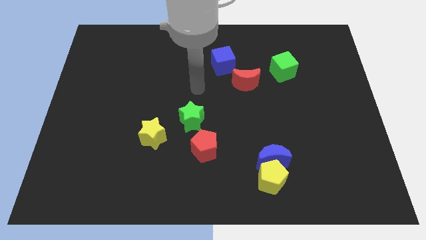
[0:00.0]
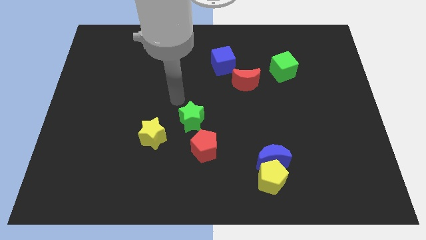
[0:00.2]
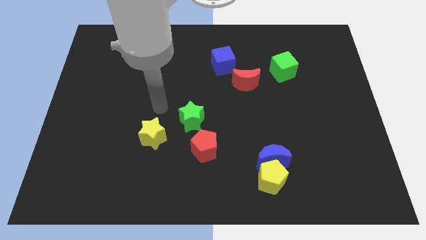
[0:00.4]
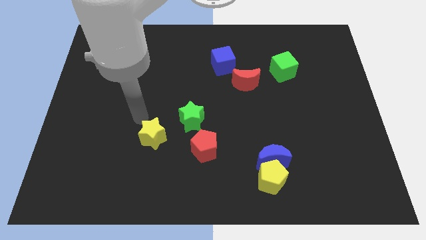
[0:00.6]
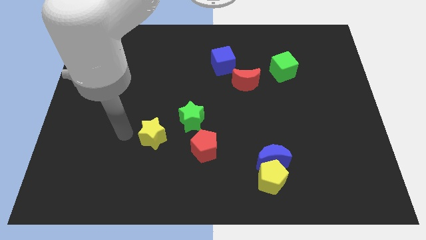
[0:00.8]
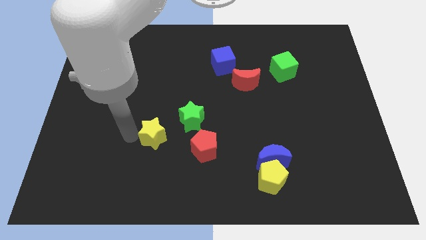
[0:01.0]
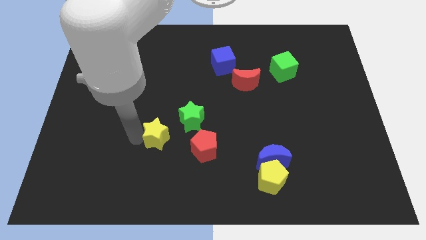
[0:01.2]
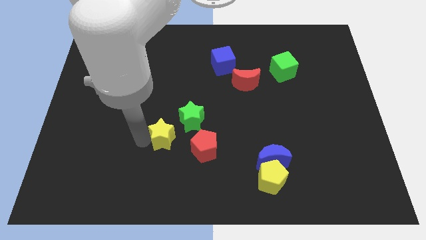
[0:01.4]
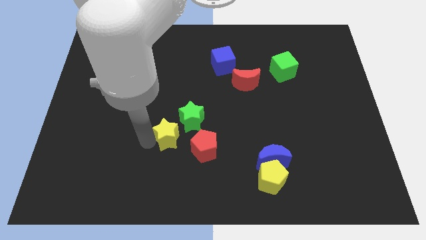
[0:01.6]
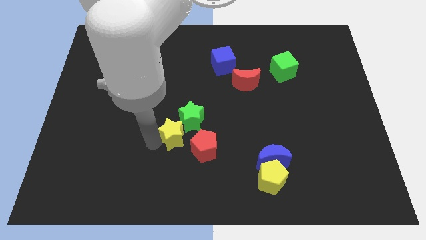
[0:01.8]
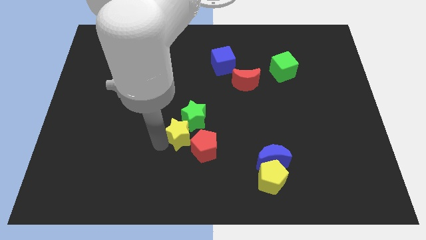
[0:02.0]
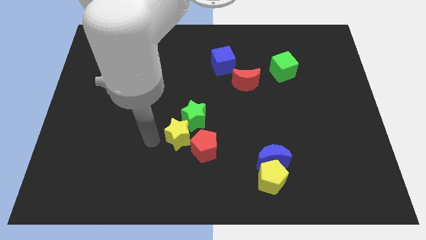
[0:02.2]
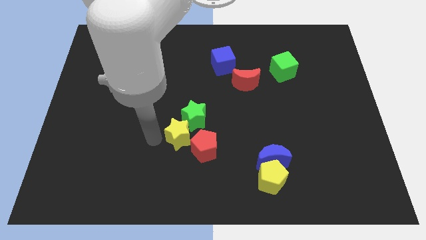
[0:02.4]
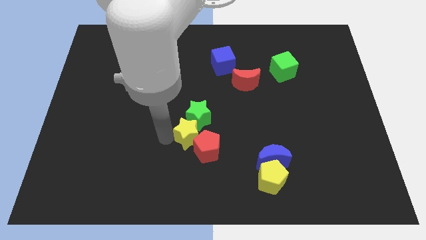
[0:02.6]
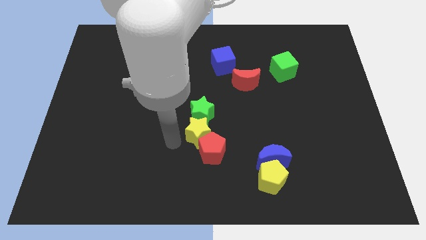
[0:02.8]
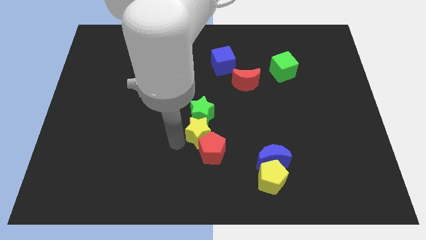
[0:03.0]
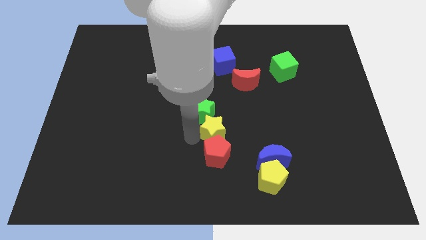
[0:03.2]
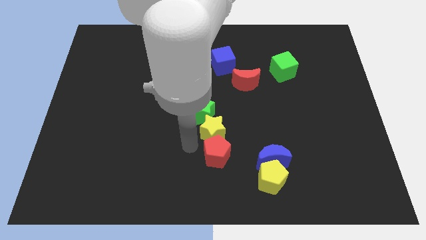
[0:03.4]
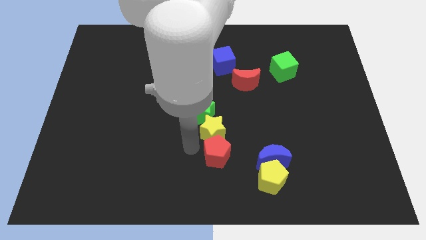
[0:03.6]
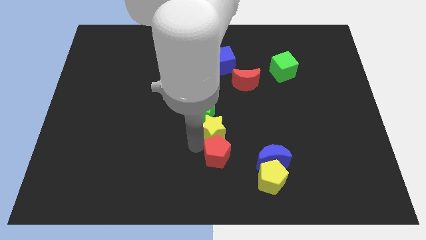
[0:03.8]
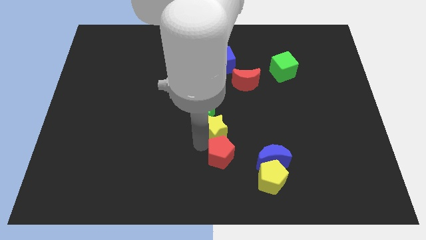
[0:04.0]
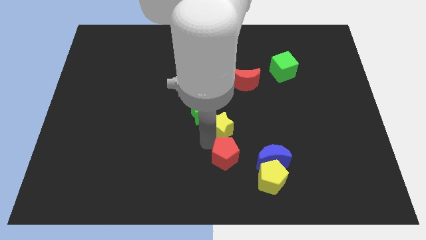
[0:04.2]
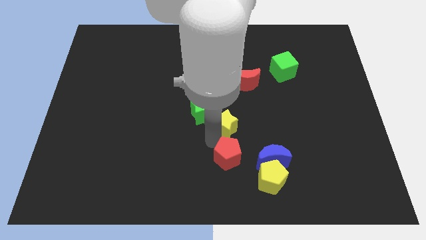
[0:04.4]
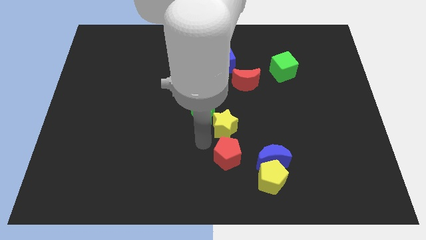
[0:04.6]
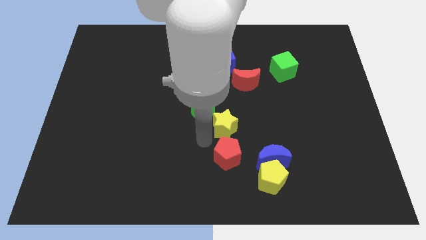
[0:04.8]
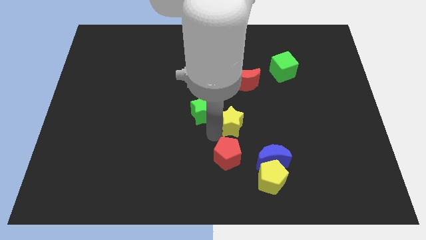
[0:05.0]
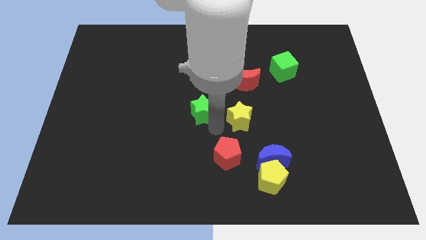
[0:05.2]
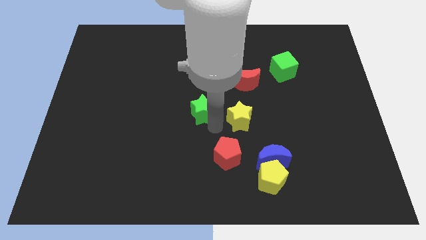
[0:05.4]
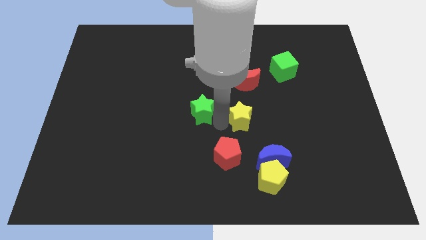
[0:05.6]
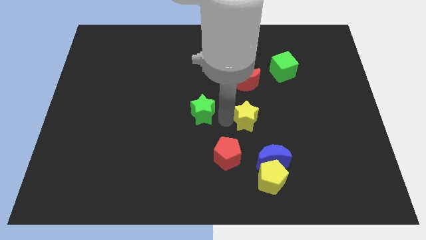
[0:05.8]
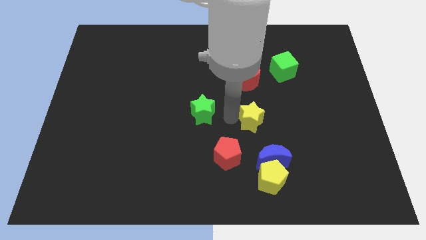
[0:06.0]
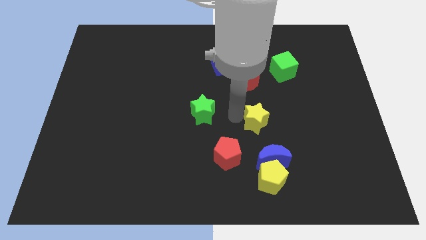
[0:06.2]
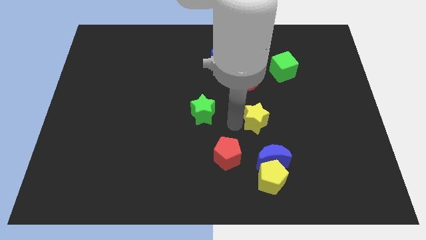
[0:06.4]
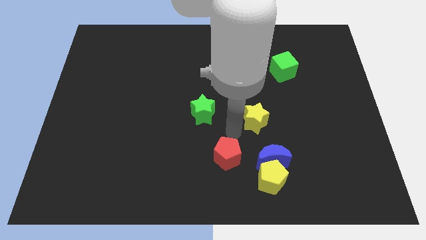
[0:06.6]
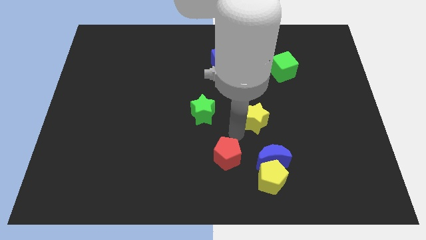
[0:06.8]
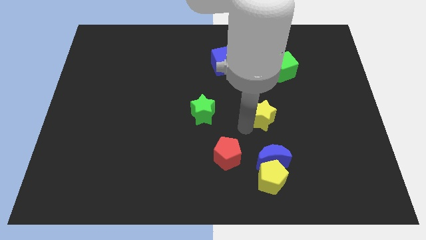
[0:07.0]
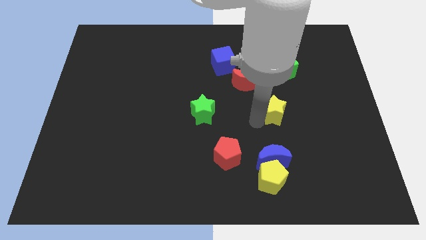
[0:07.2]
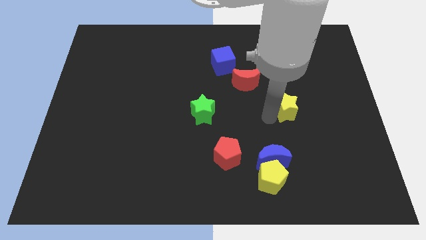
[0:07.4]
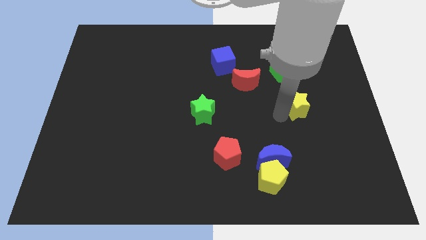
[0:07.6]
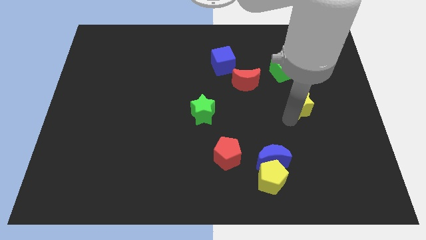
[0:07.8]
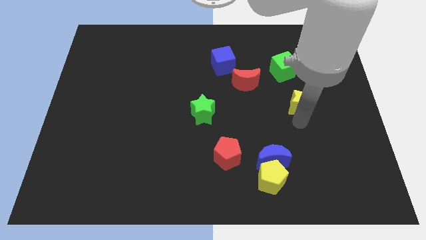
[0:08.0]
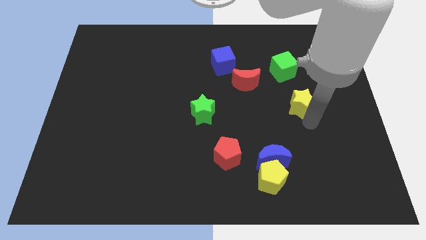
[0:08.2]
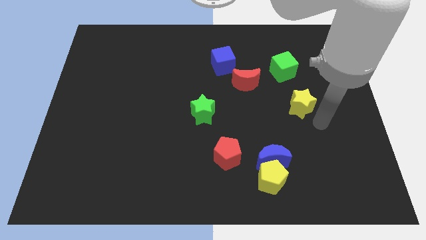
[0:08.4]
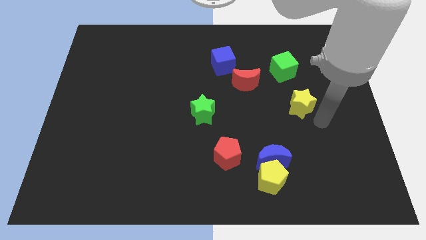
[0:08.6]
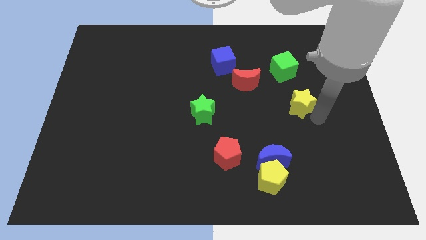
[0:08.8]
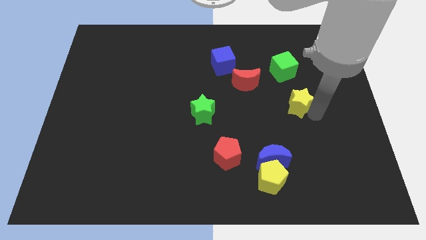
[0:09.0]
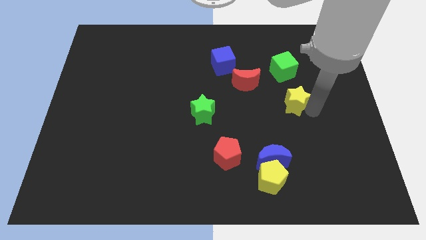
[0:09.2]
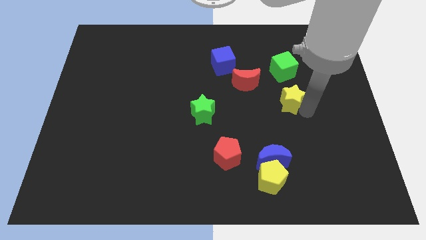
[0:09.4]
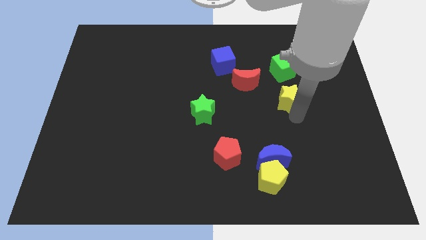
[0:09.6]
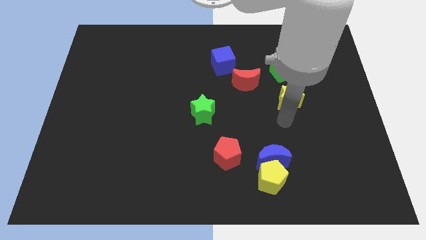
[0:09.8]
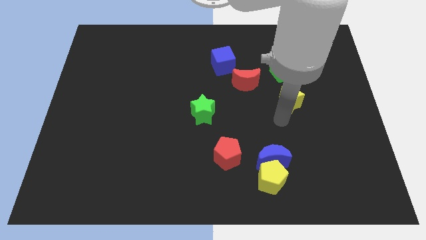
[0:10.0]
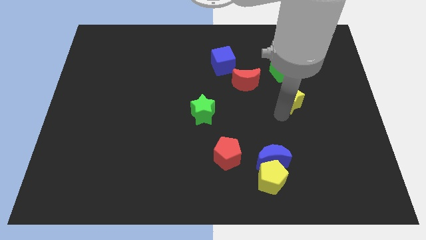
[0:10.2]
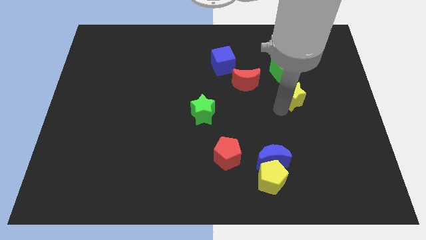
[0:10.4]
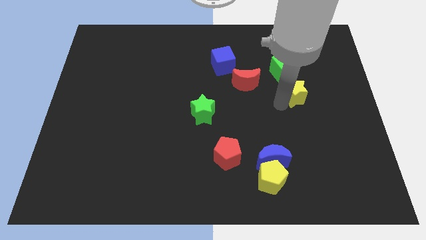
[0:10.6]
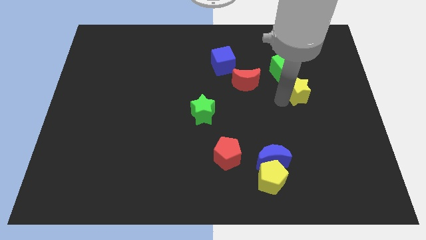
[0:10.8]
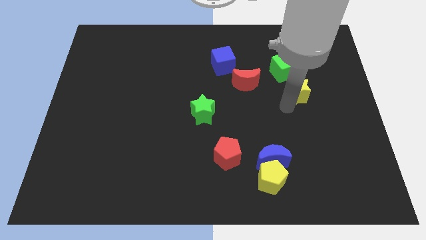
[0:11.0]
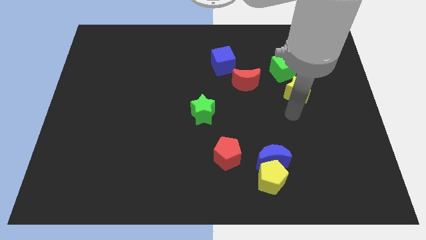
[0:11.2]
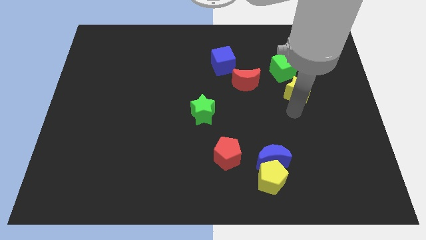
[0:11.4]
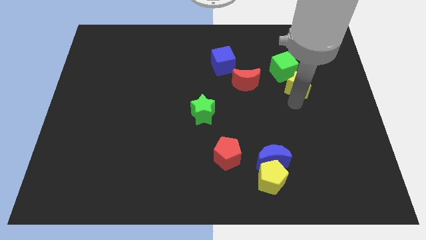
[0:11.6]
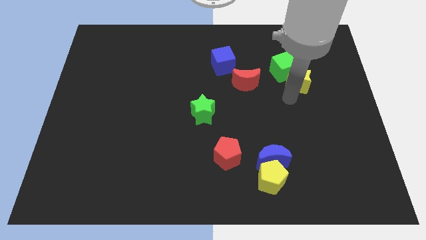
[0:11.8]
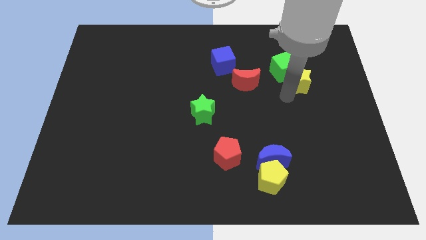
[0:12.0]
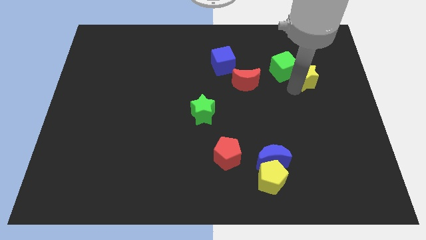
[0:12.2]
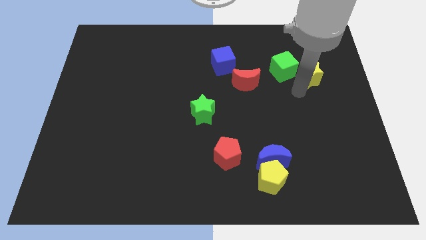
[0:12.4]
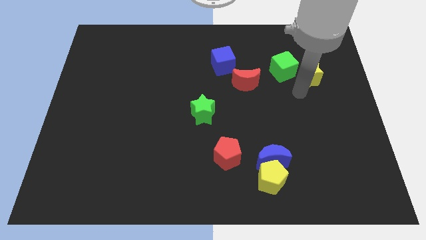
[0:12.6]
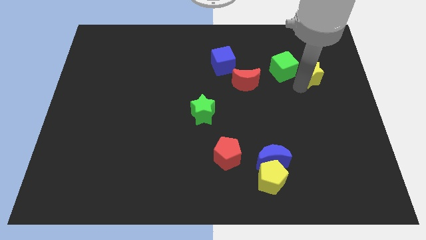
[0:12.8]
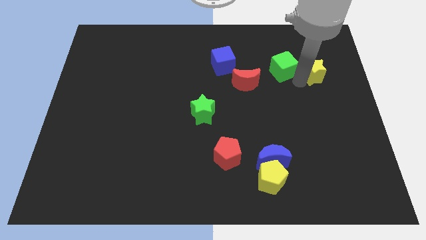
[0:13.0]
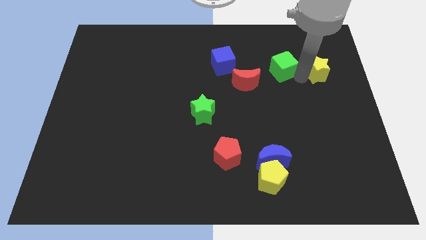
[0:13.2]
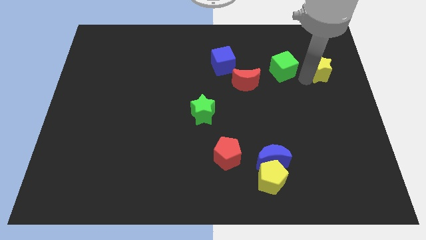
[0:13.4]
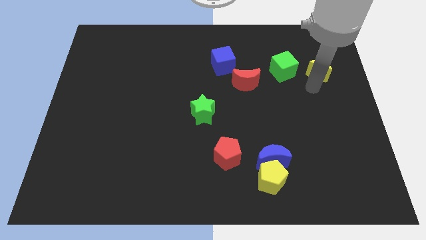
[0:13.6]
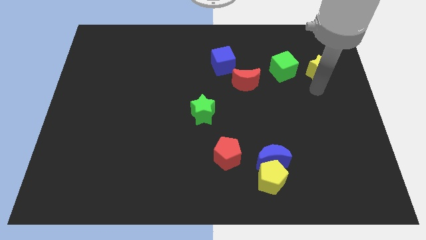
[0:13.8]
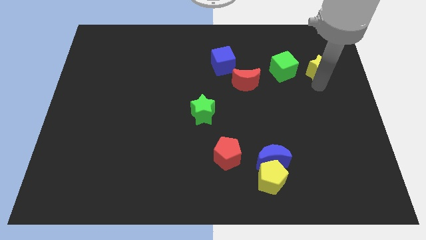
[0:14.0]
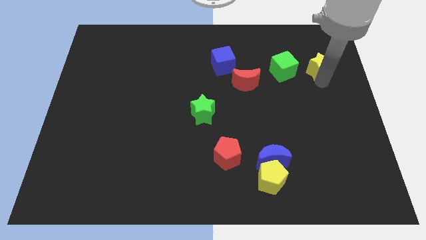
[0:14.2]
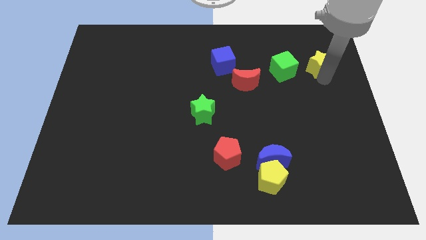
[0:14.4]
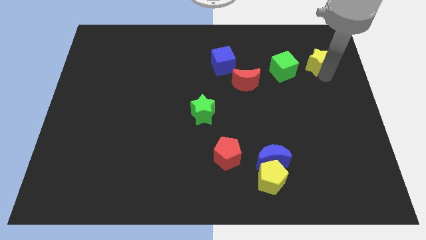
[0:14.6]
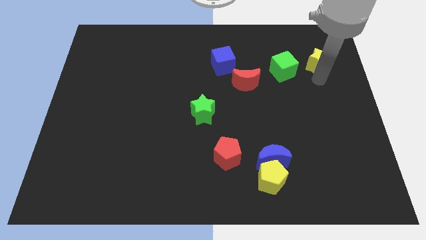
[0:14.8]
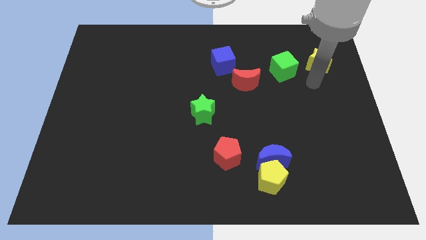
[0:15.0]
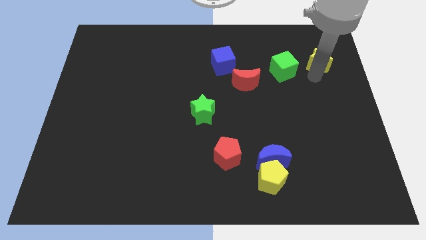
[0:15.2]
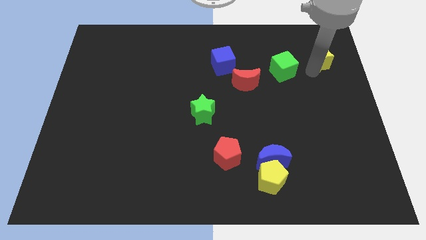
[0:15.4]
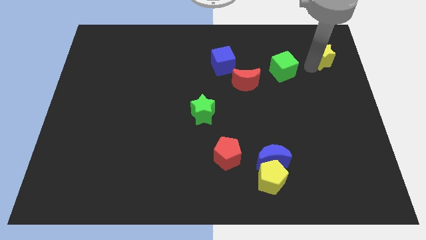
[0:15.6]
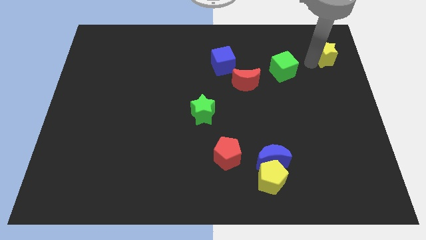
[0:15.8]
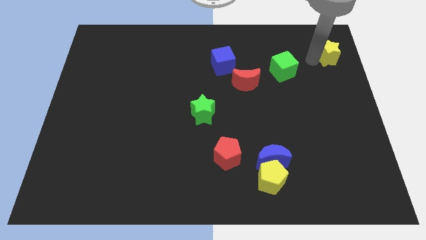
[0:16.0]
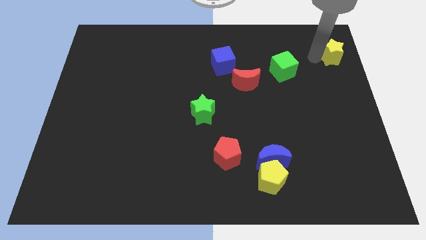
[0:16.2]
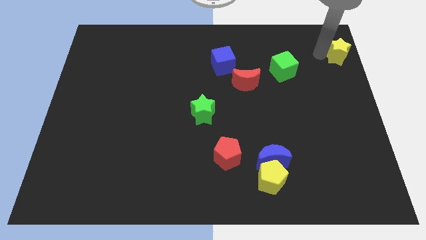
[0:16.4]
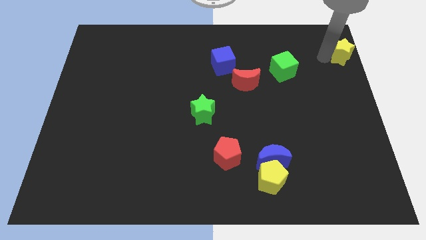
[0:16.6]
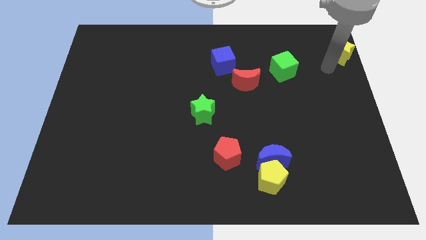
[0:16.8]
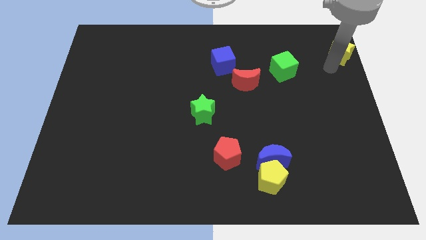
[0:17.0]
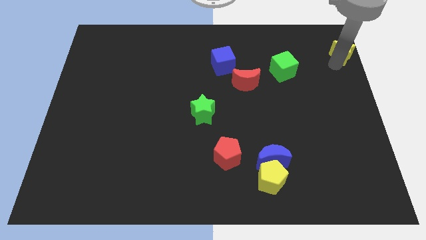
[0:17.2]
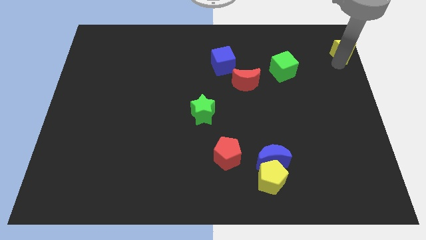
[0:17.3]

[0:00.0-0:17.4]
slide the yellow star to the top right
